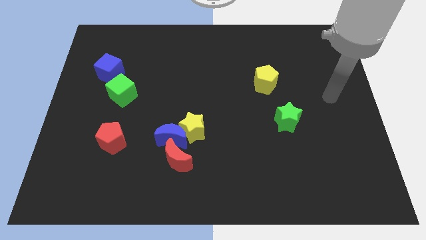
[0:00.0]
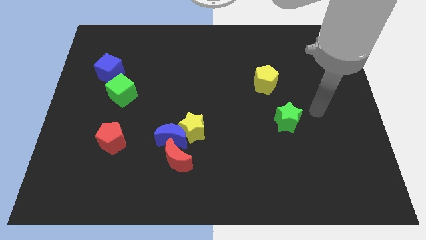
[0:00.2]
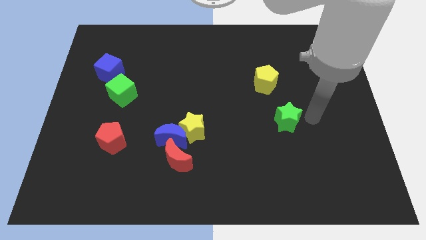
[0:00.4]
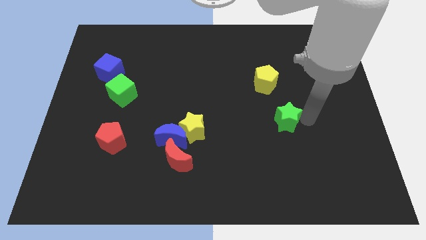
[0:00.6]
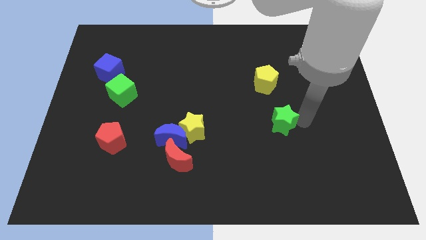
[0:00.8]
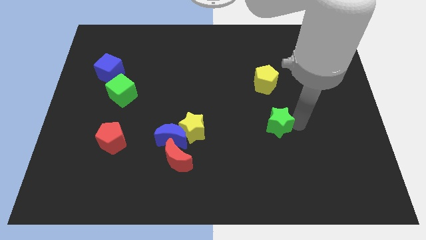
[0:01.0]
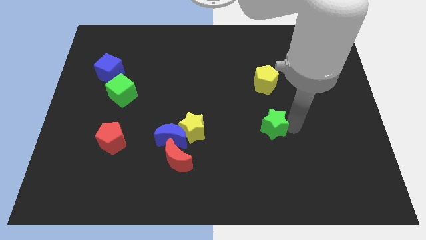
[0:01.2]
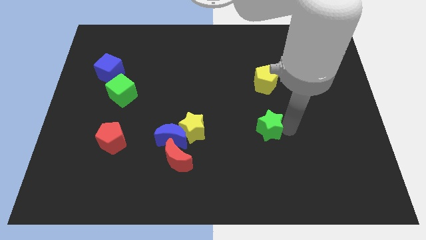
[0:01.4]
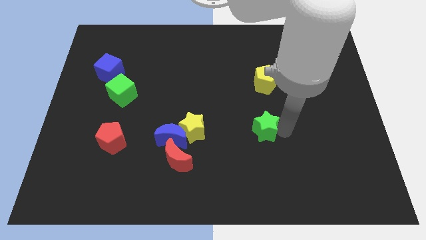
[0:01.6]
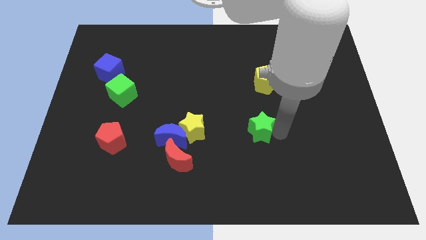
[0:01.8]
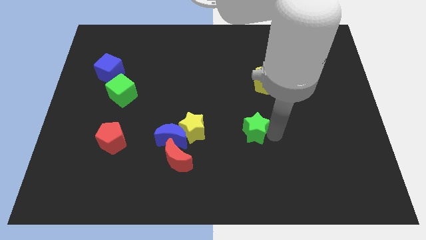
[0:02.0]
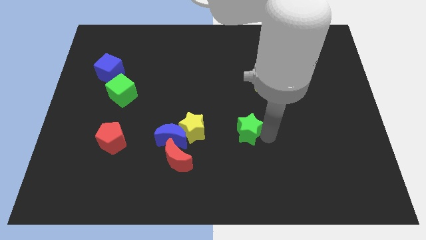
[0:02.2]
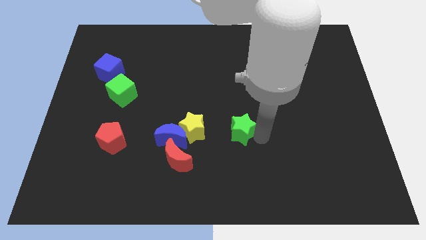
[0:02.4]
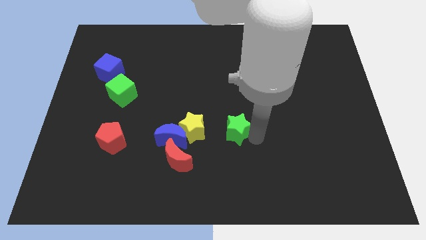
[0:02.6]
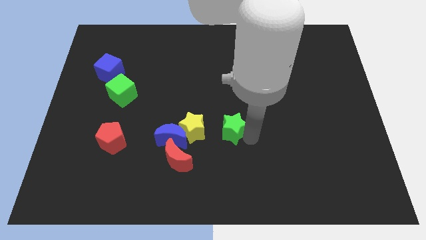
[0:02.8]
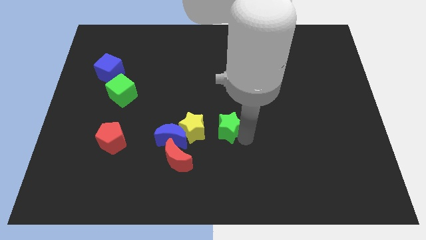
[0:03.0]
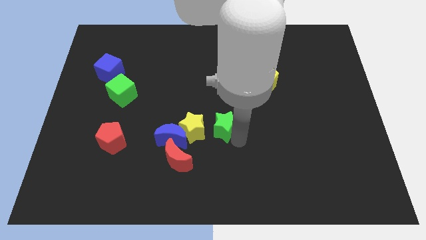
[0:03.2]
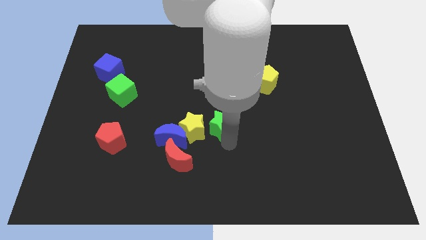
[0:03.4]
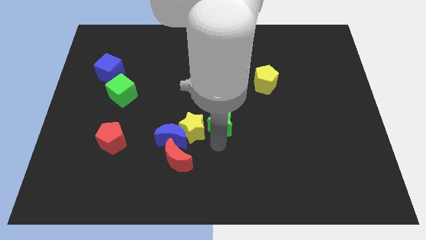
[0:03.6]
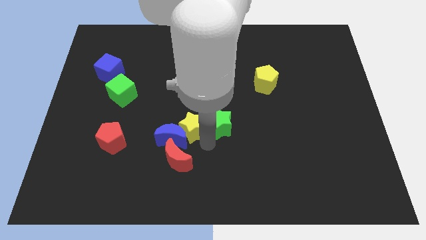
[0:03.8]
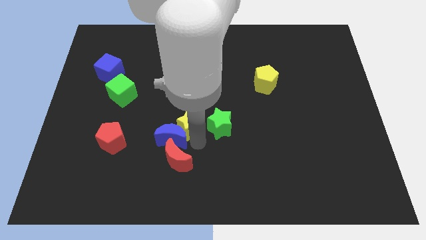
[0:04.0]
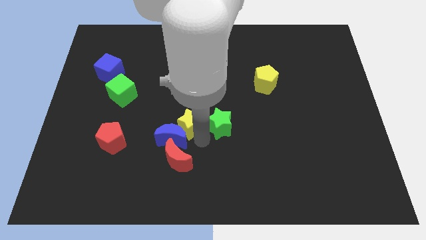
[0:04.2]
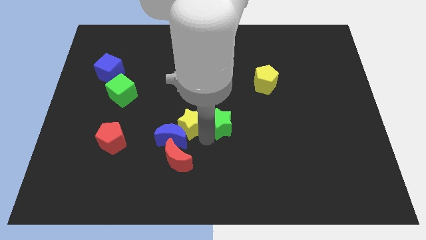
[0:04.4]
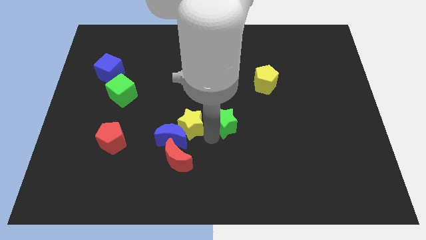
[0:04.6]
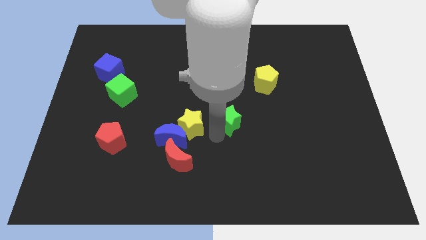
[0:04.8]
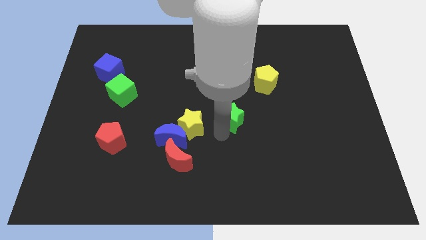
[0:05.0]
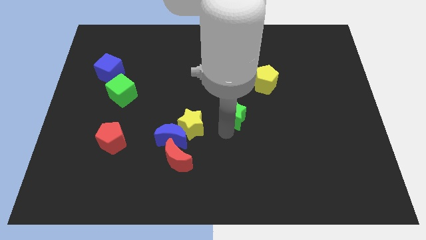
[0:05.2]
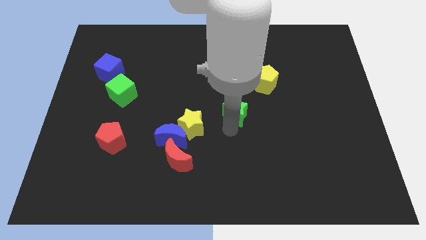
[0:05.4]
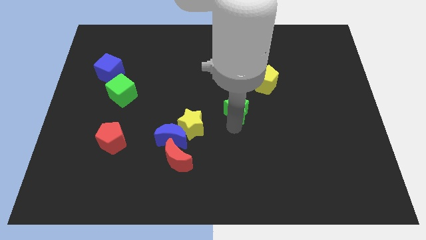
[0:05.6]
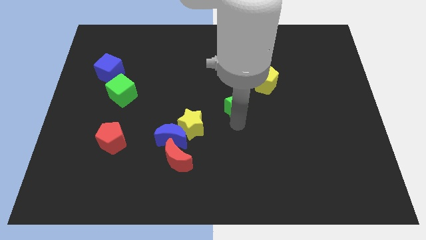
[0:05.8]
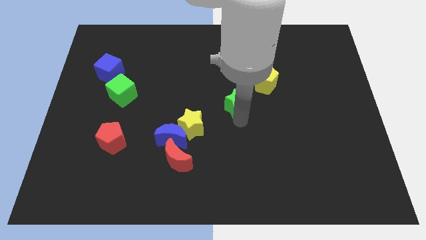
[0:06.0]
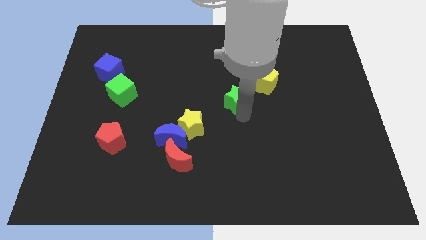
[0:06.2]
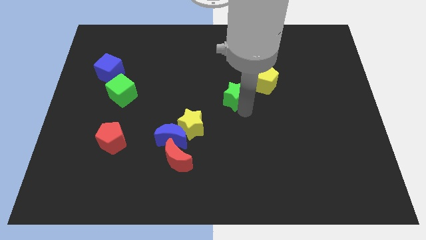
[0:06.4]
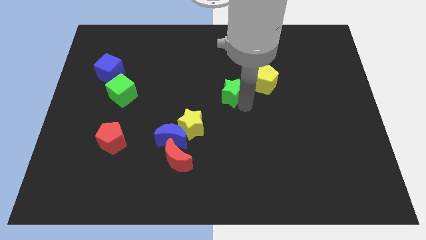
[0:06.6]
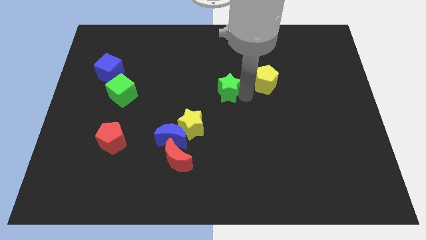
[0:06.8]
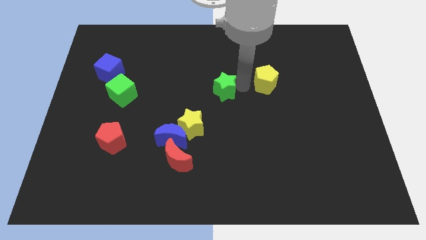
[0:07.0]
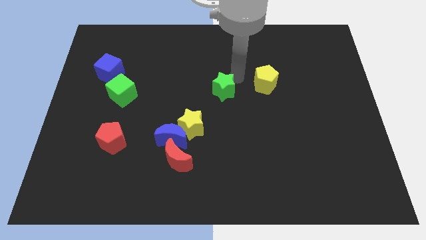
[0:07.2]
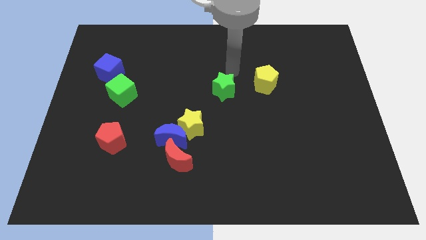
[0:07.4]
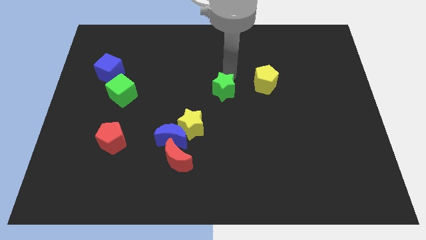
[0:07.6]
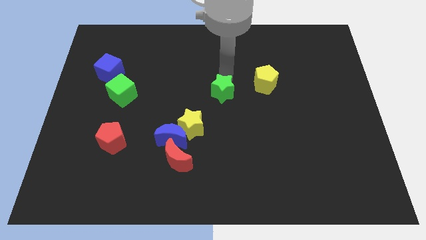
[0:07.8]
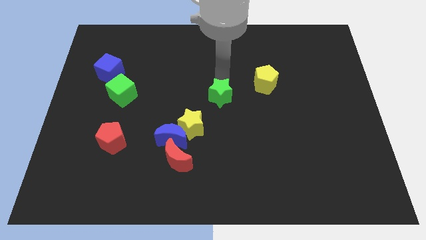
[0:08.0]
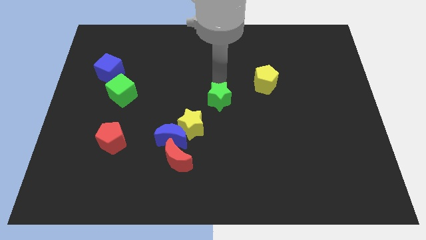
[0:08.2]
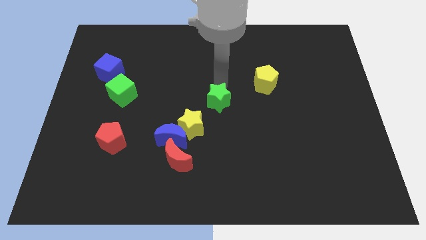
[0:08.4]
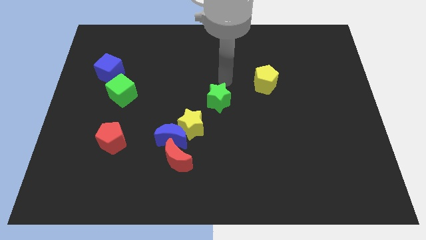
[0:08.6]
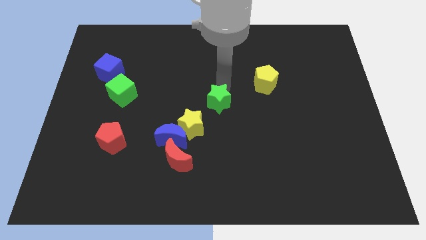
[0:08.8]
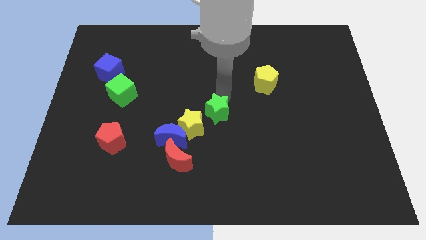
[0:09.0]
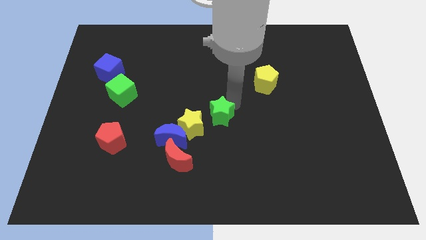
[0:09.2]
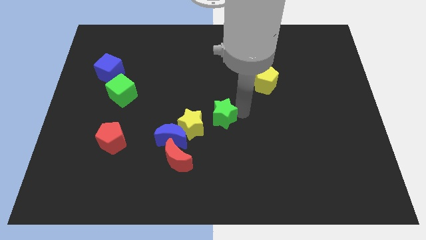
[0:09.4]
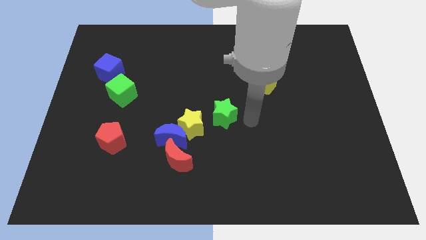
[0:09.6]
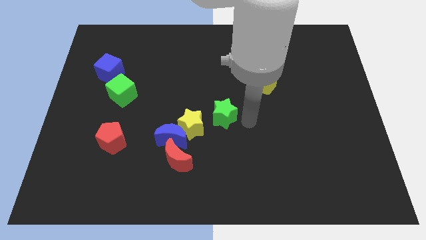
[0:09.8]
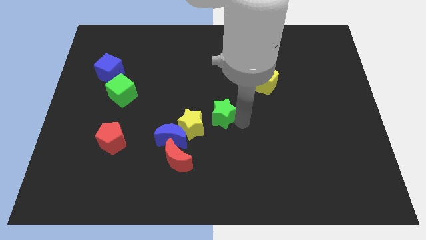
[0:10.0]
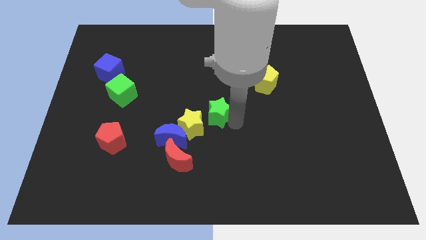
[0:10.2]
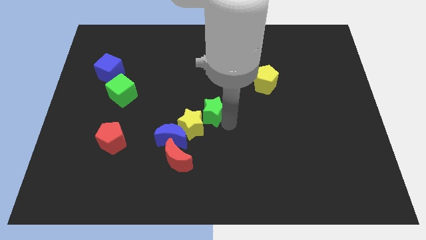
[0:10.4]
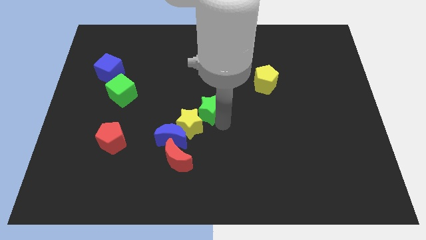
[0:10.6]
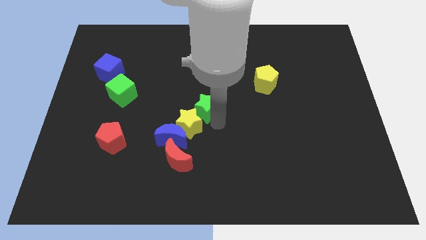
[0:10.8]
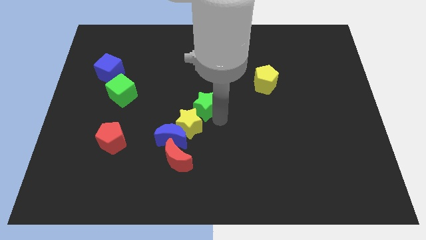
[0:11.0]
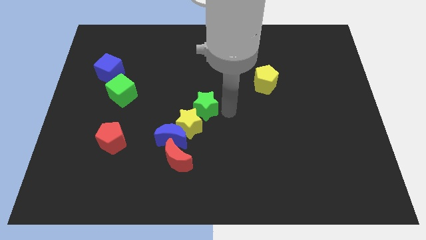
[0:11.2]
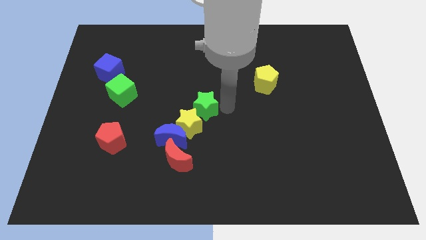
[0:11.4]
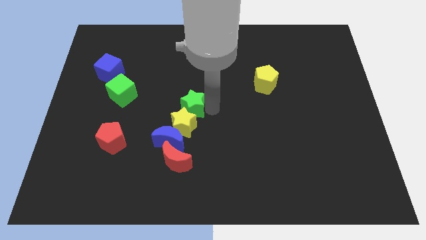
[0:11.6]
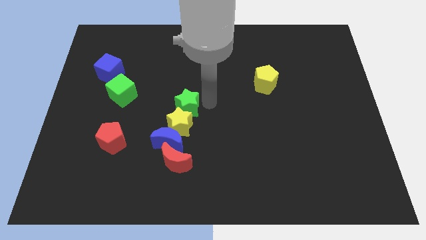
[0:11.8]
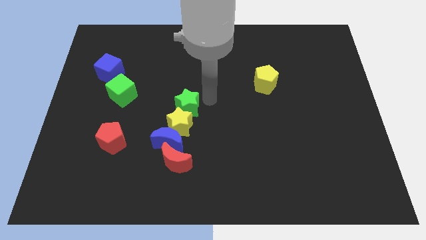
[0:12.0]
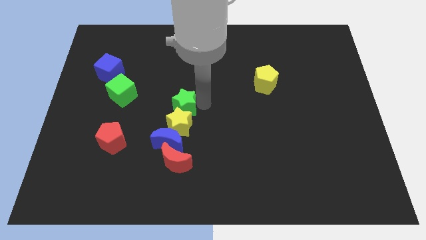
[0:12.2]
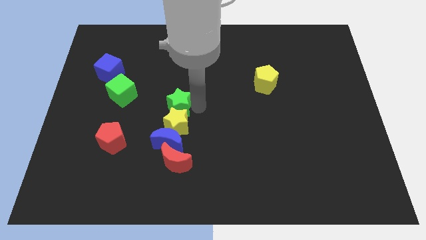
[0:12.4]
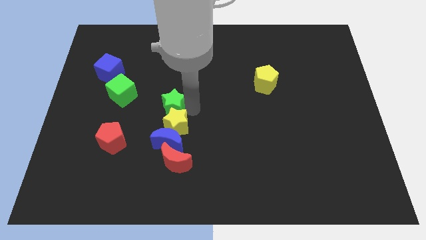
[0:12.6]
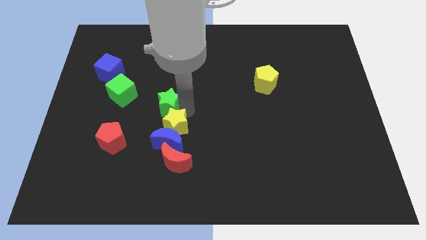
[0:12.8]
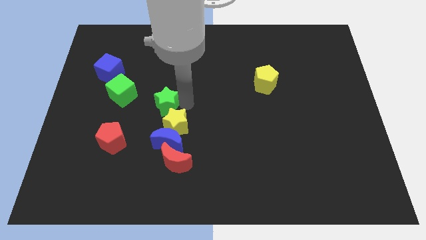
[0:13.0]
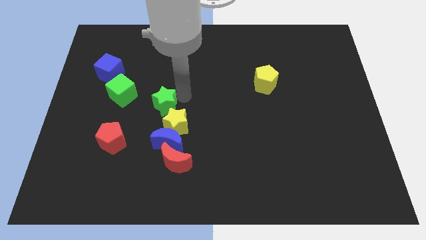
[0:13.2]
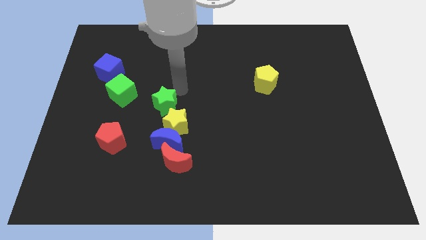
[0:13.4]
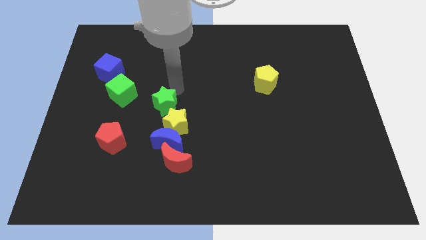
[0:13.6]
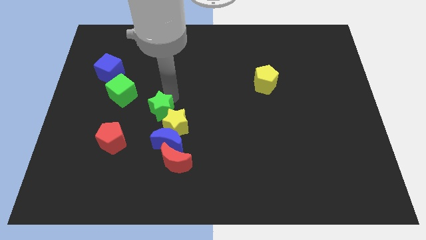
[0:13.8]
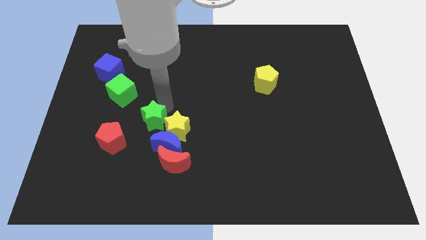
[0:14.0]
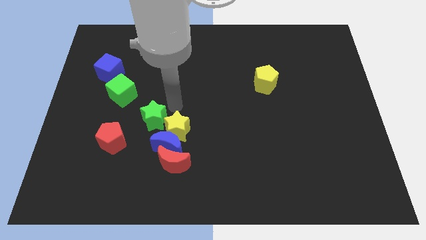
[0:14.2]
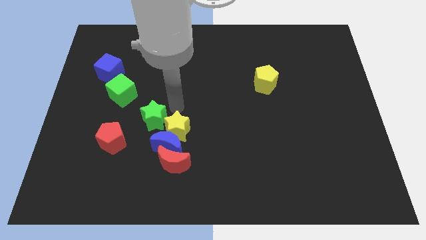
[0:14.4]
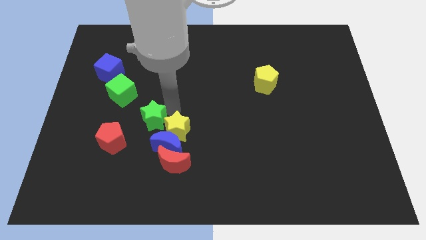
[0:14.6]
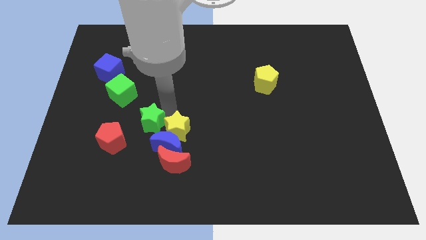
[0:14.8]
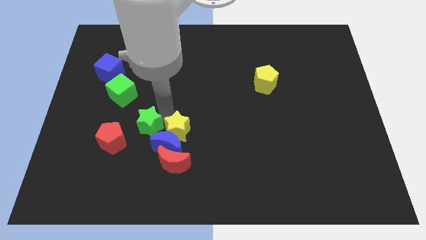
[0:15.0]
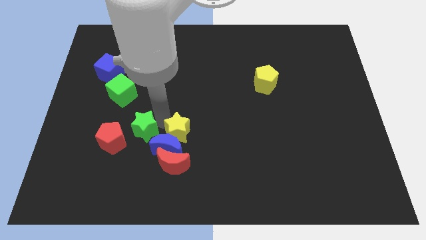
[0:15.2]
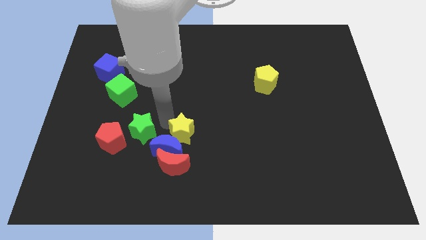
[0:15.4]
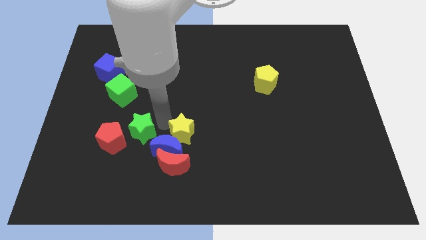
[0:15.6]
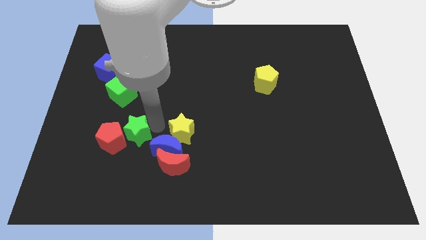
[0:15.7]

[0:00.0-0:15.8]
slide the green star to the red pentagon
